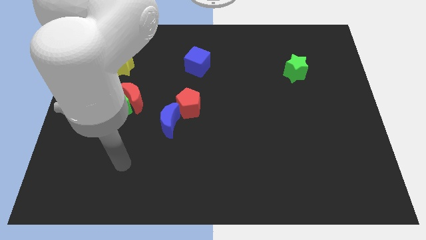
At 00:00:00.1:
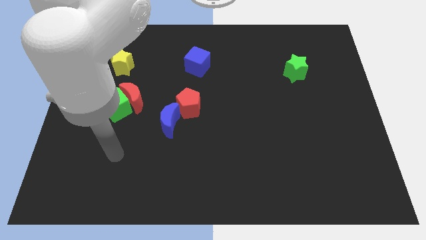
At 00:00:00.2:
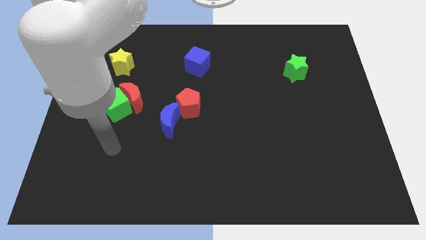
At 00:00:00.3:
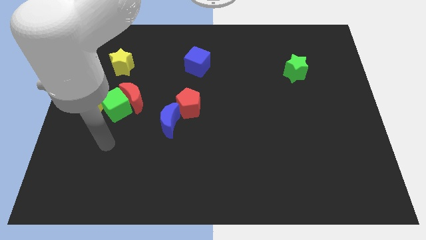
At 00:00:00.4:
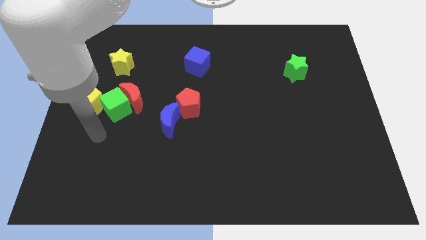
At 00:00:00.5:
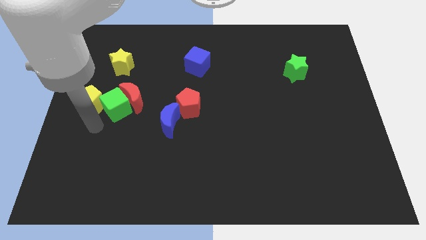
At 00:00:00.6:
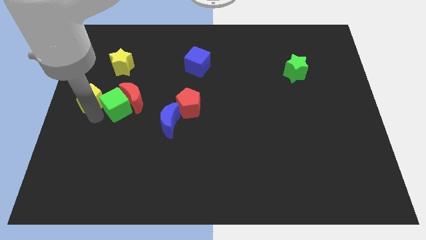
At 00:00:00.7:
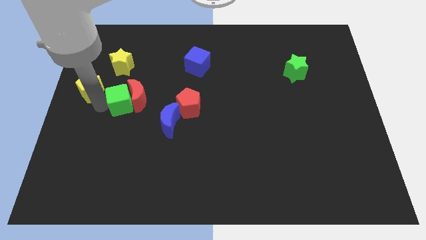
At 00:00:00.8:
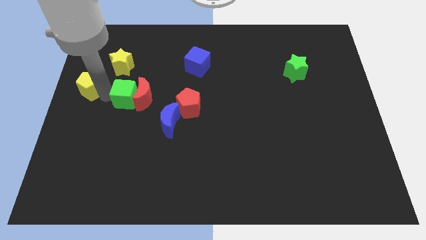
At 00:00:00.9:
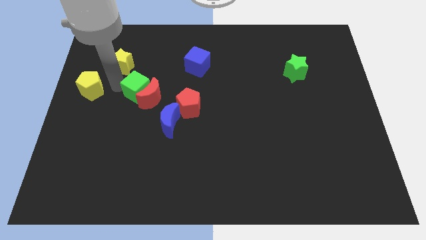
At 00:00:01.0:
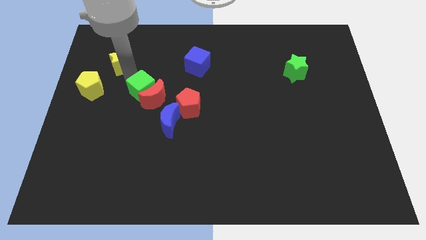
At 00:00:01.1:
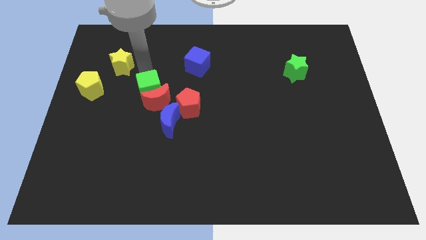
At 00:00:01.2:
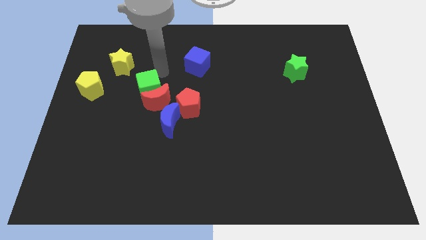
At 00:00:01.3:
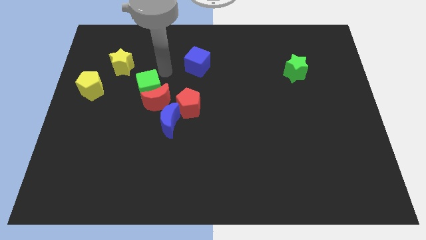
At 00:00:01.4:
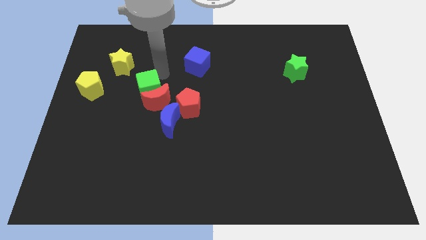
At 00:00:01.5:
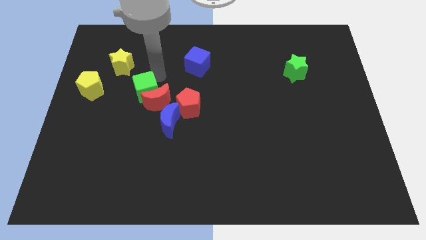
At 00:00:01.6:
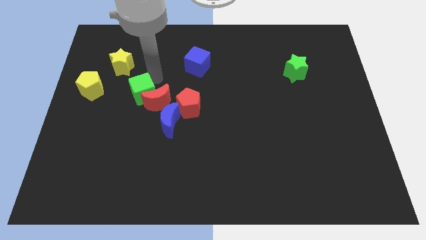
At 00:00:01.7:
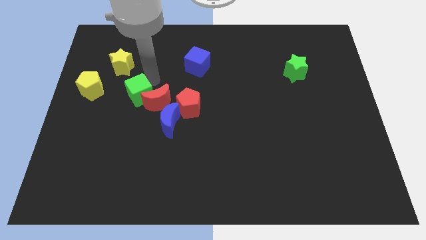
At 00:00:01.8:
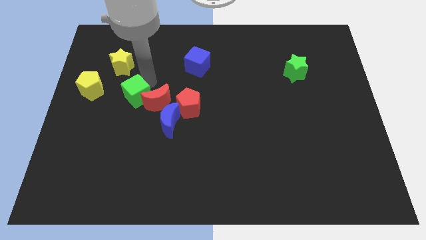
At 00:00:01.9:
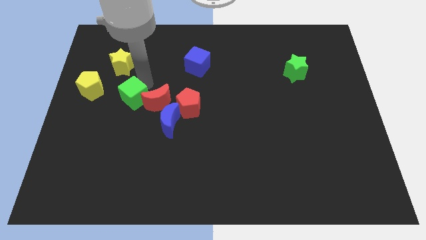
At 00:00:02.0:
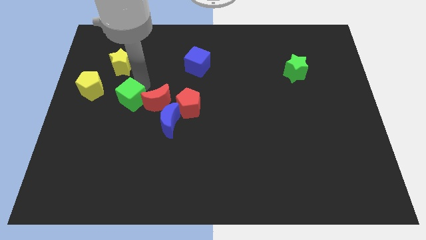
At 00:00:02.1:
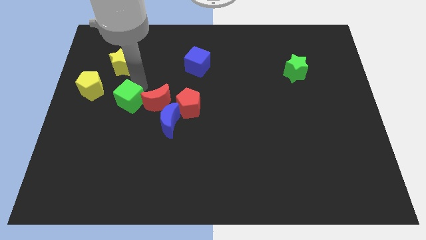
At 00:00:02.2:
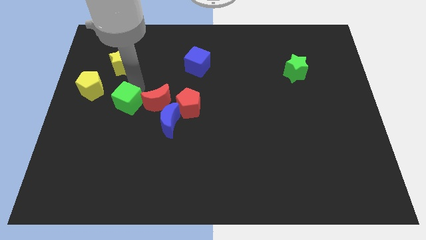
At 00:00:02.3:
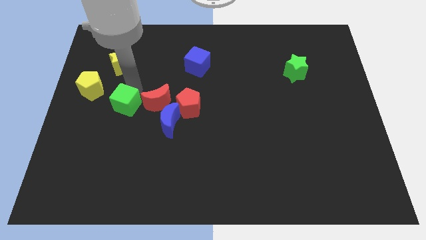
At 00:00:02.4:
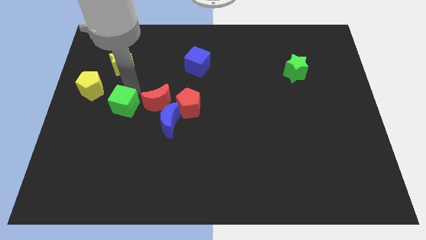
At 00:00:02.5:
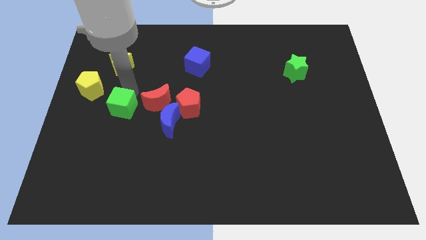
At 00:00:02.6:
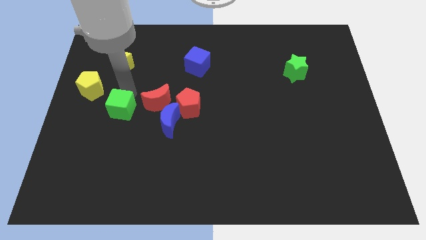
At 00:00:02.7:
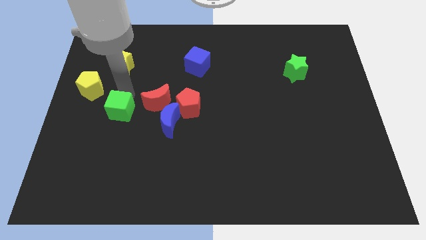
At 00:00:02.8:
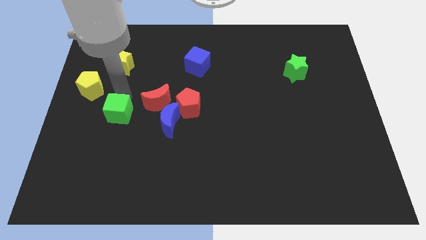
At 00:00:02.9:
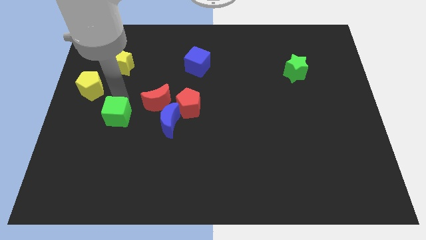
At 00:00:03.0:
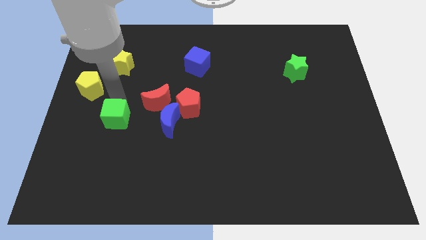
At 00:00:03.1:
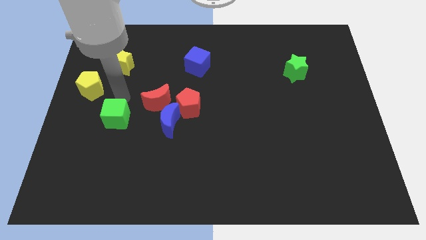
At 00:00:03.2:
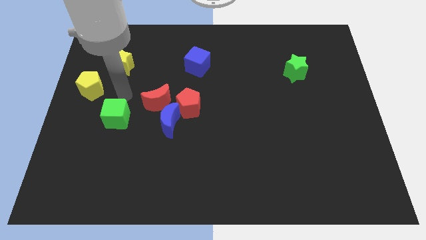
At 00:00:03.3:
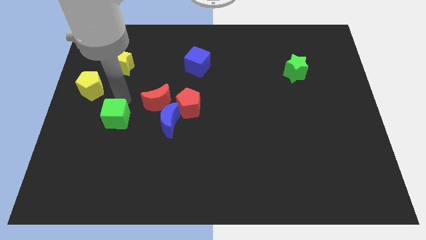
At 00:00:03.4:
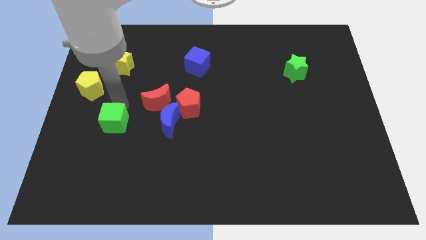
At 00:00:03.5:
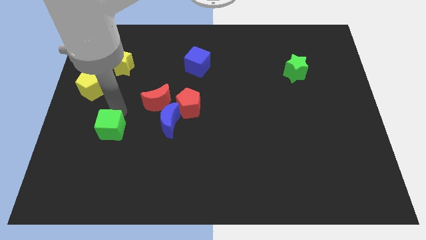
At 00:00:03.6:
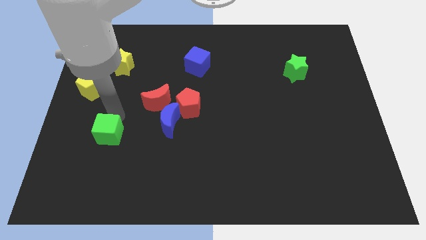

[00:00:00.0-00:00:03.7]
pull the green cube apart from the red moon and yellow pentagon

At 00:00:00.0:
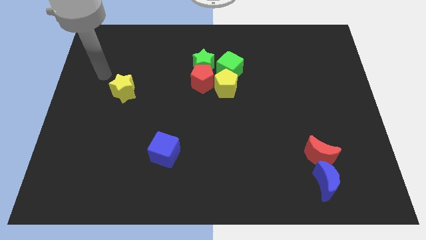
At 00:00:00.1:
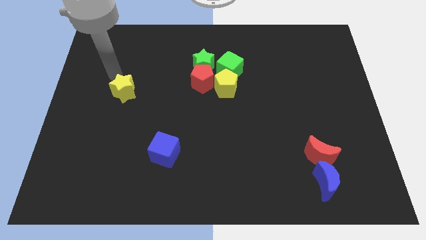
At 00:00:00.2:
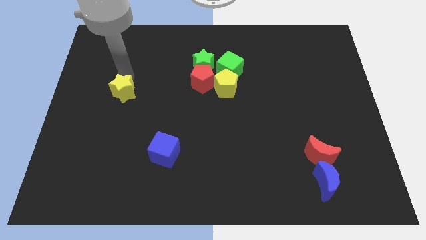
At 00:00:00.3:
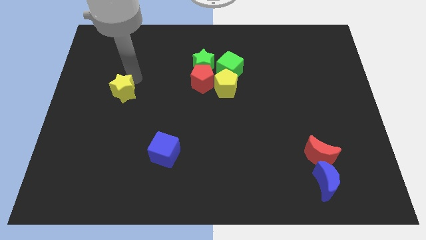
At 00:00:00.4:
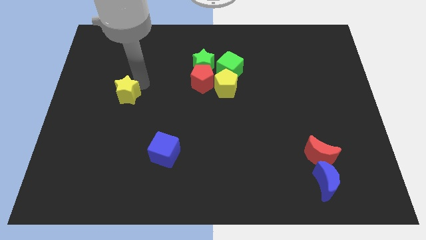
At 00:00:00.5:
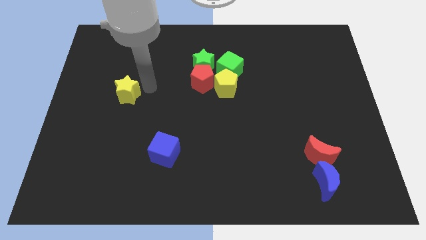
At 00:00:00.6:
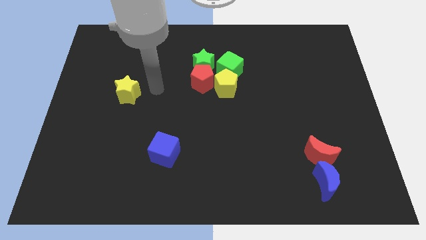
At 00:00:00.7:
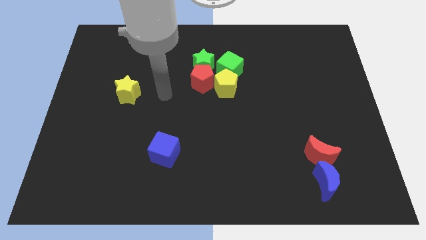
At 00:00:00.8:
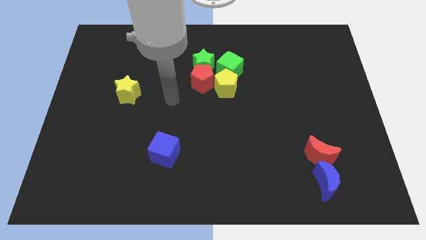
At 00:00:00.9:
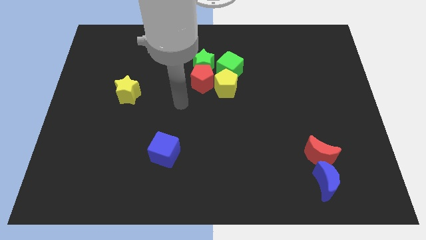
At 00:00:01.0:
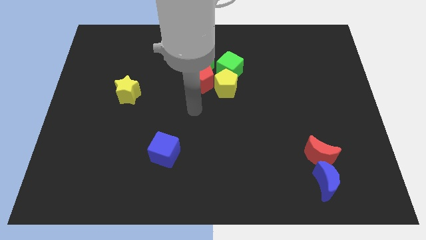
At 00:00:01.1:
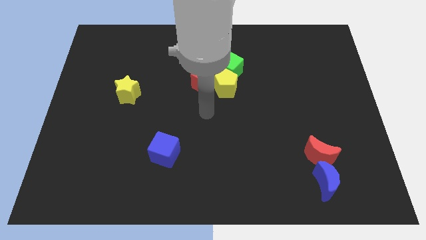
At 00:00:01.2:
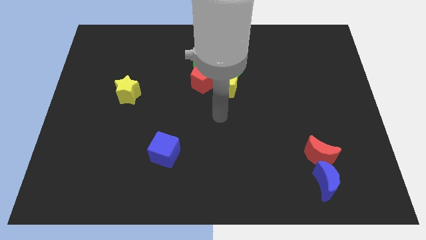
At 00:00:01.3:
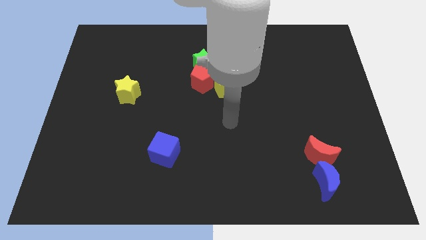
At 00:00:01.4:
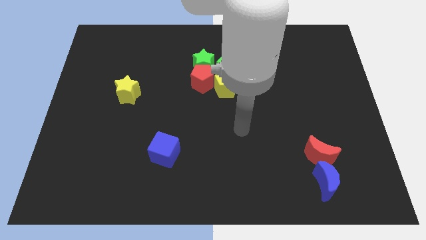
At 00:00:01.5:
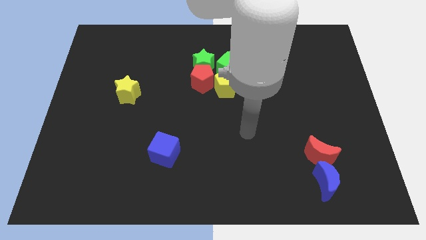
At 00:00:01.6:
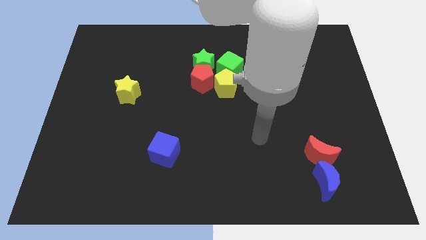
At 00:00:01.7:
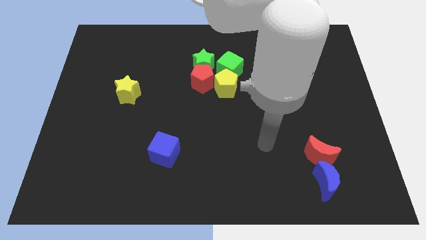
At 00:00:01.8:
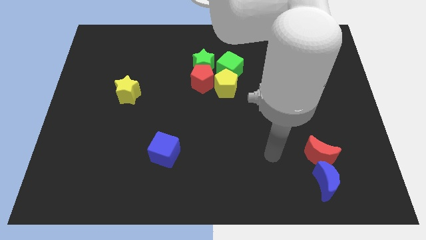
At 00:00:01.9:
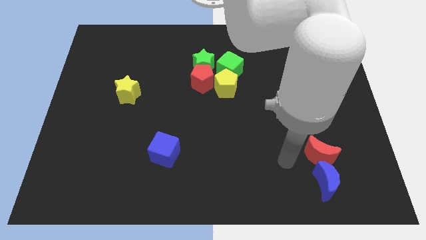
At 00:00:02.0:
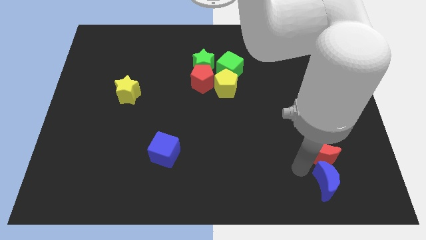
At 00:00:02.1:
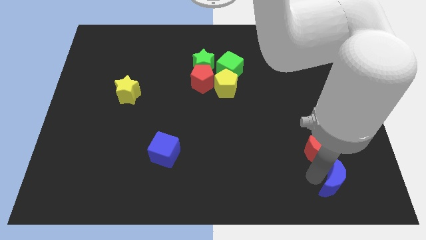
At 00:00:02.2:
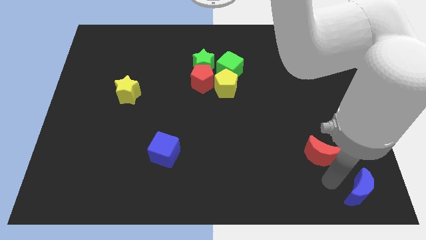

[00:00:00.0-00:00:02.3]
separate the red moon from the blue moon

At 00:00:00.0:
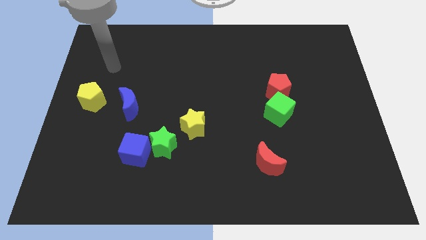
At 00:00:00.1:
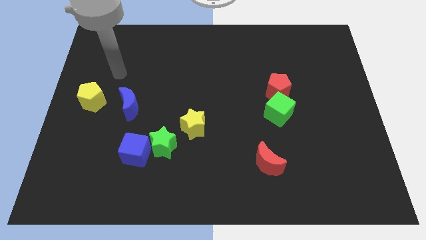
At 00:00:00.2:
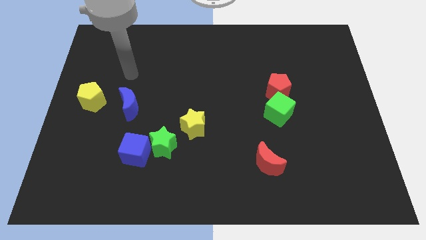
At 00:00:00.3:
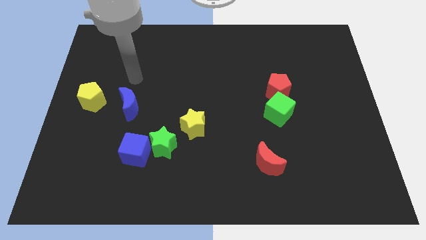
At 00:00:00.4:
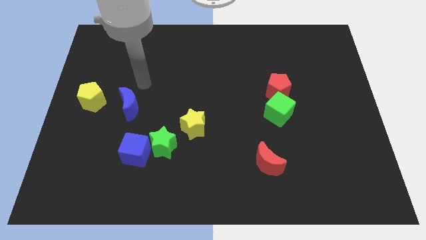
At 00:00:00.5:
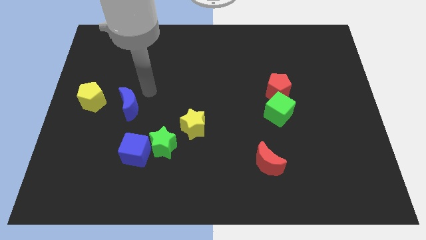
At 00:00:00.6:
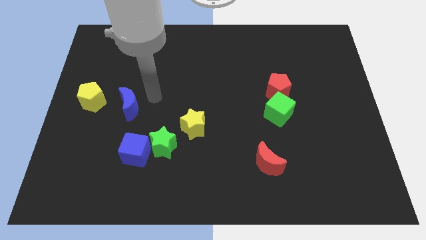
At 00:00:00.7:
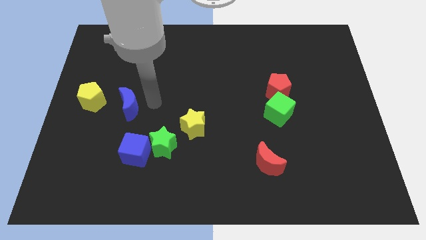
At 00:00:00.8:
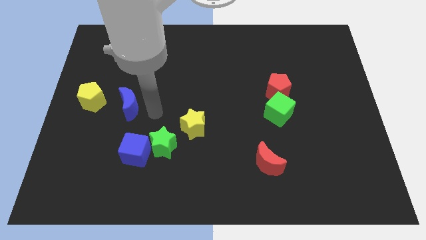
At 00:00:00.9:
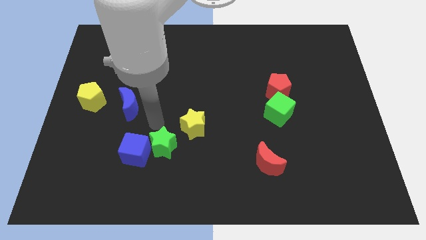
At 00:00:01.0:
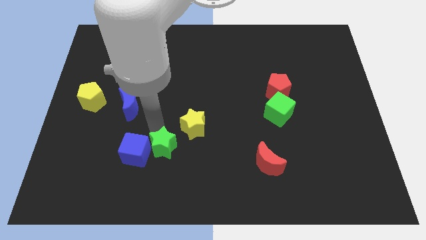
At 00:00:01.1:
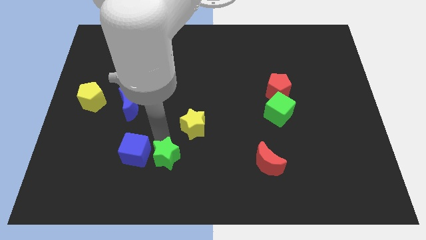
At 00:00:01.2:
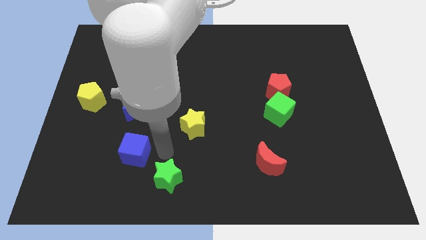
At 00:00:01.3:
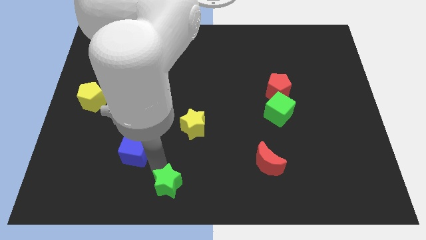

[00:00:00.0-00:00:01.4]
pull the blue cube apart from the green star

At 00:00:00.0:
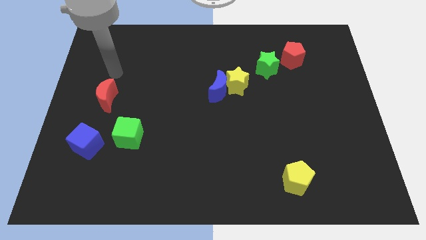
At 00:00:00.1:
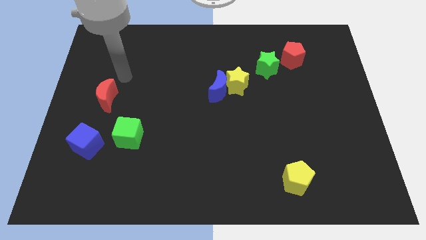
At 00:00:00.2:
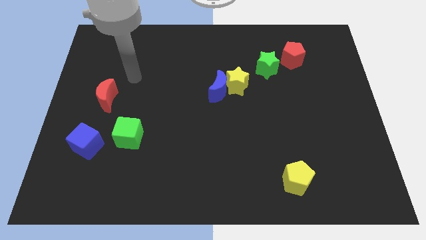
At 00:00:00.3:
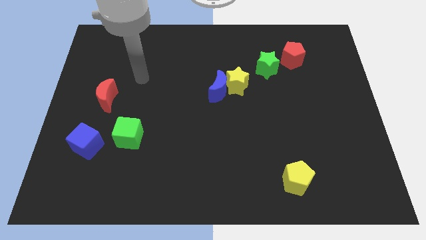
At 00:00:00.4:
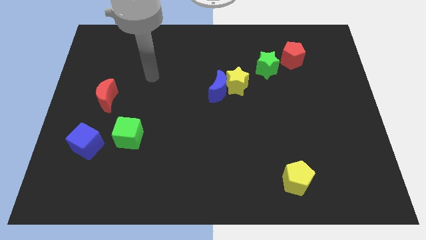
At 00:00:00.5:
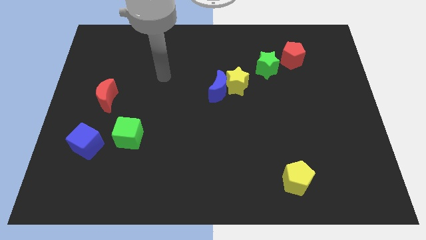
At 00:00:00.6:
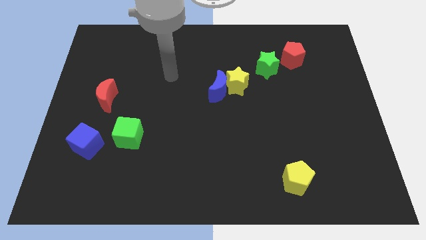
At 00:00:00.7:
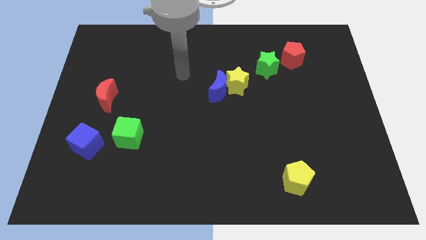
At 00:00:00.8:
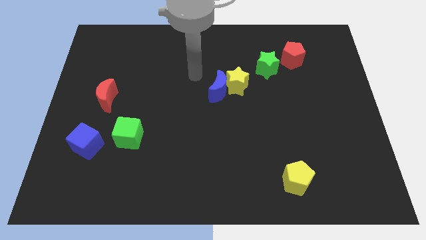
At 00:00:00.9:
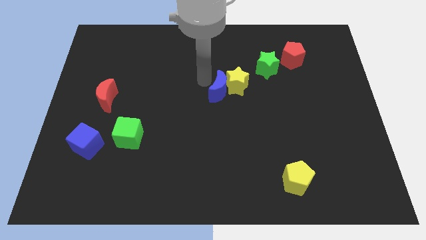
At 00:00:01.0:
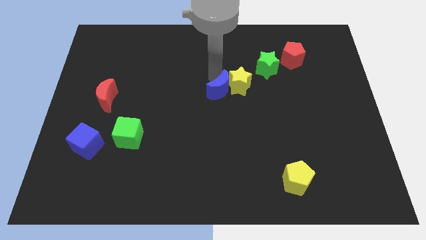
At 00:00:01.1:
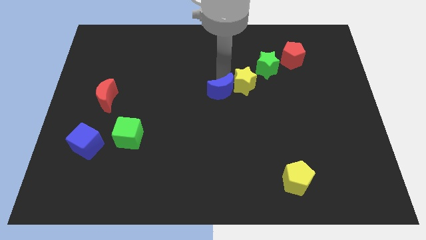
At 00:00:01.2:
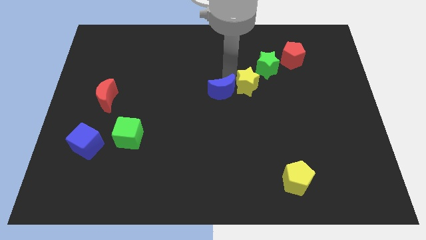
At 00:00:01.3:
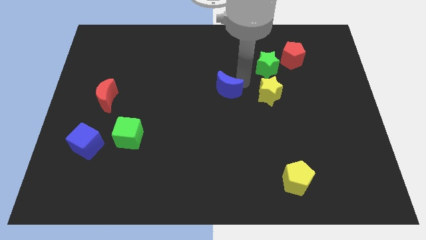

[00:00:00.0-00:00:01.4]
separate the blue moon from the yellow star

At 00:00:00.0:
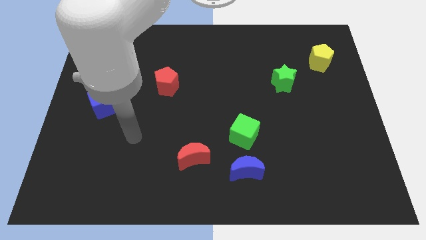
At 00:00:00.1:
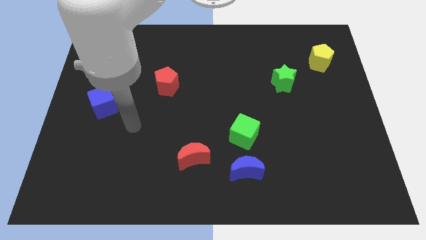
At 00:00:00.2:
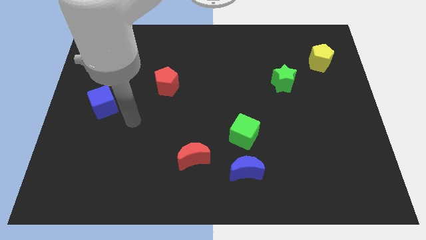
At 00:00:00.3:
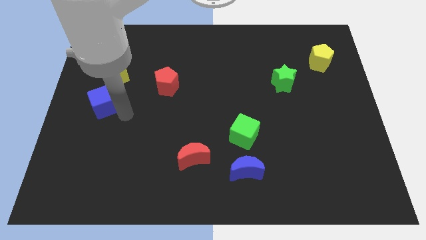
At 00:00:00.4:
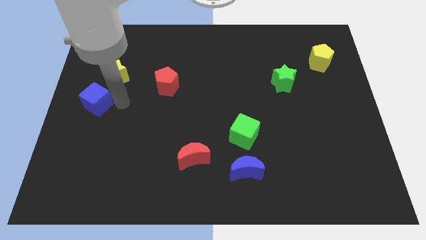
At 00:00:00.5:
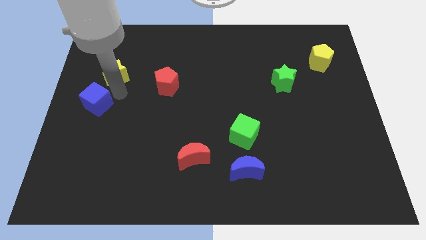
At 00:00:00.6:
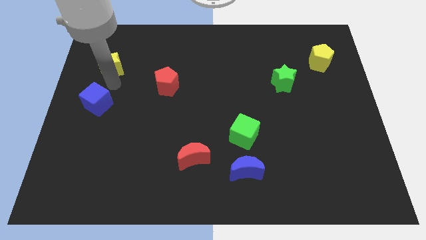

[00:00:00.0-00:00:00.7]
pull the blue cube apart from the yellow star
